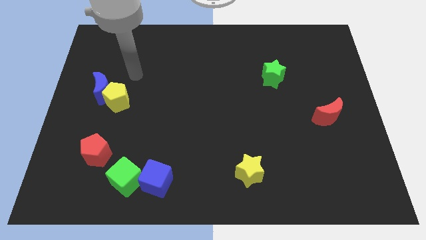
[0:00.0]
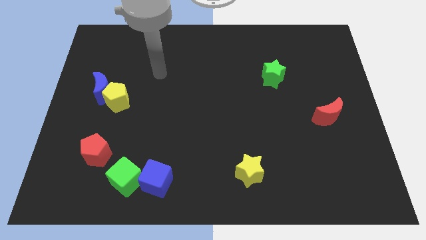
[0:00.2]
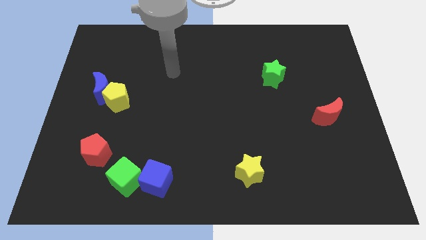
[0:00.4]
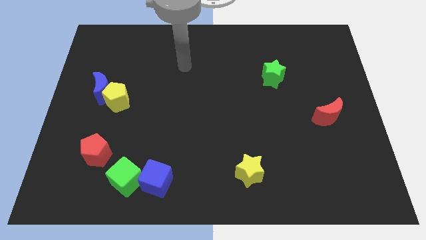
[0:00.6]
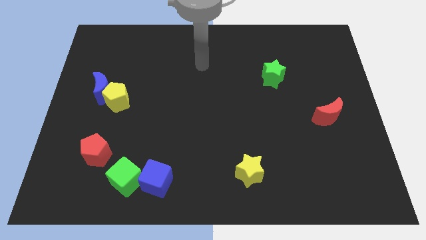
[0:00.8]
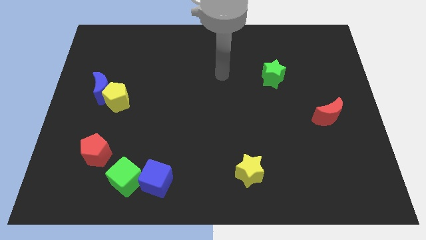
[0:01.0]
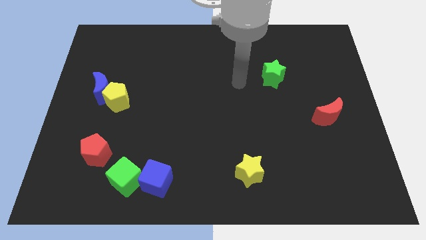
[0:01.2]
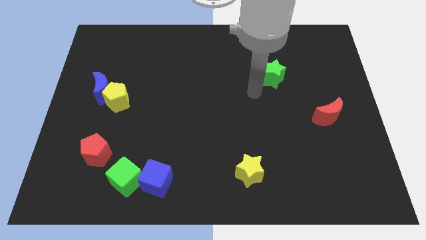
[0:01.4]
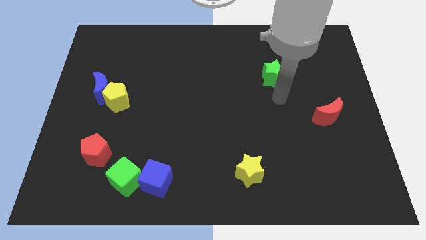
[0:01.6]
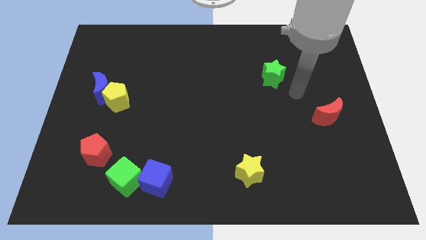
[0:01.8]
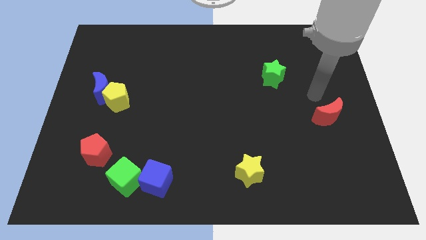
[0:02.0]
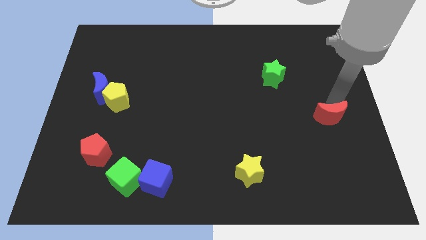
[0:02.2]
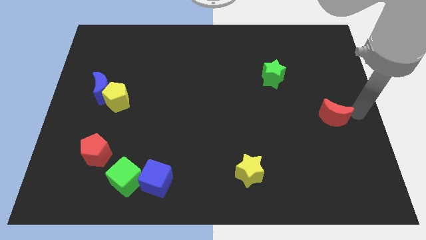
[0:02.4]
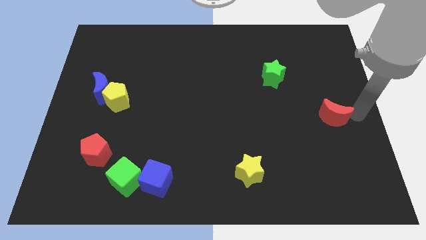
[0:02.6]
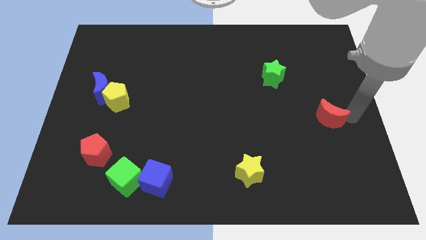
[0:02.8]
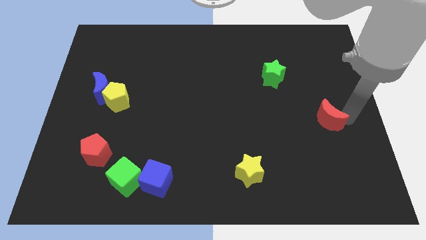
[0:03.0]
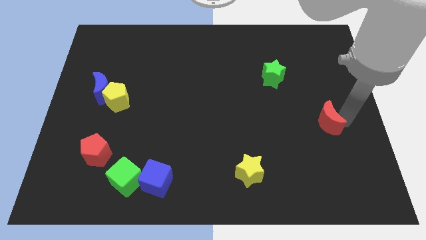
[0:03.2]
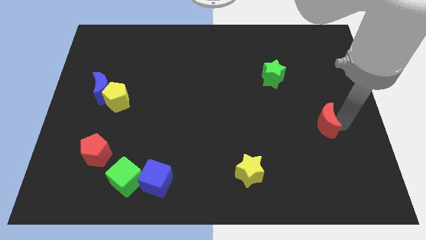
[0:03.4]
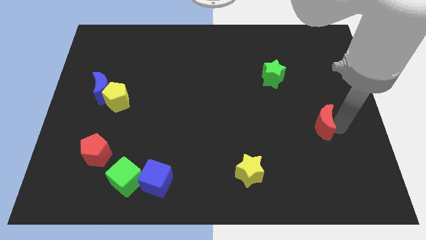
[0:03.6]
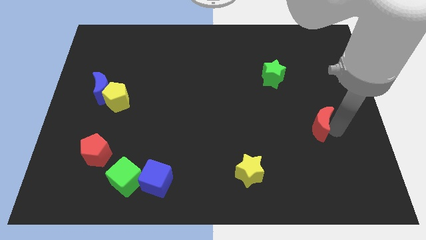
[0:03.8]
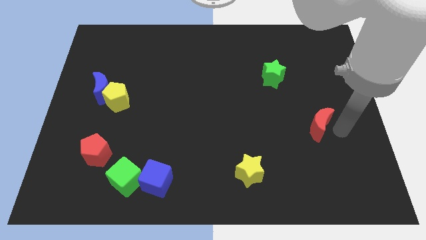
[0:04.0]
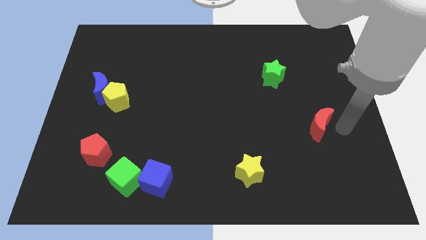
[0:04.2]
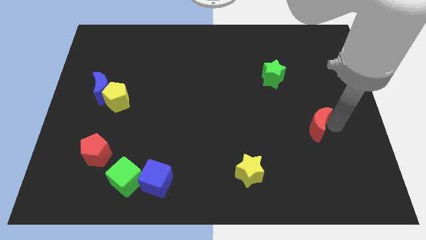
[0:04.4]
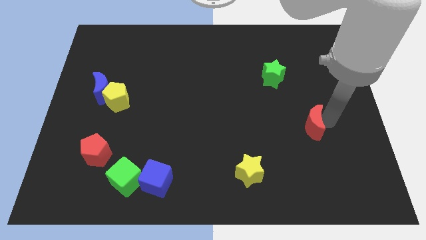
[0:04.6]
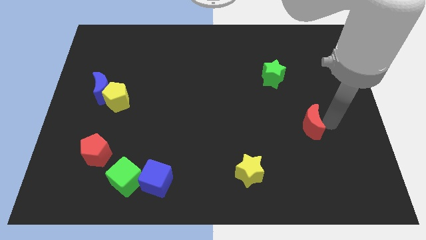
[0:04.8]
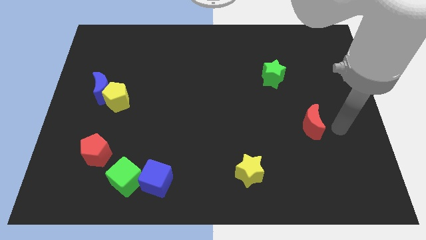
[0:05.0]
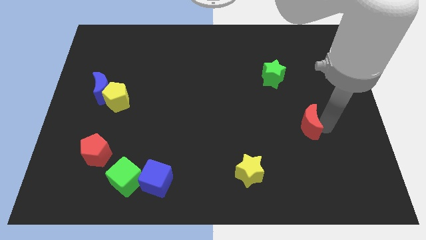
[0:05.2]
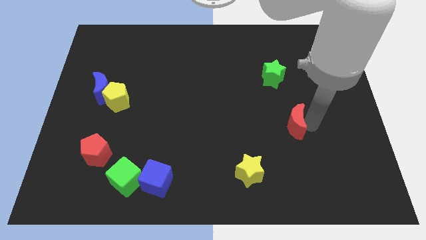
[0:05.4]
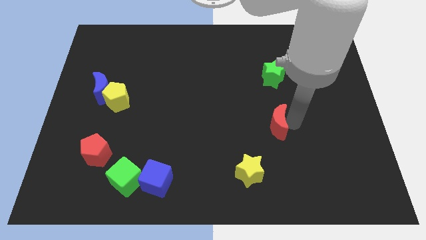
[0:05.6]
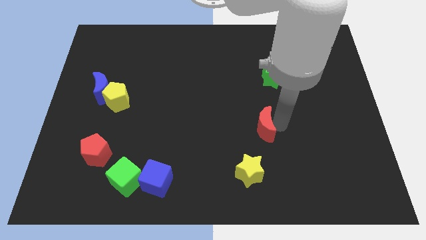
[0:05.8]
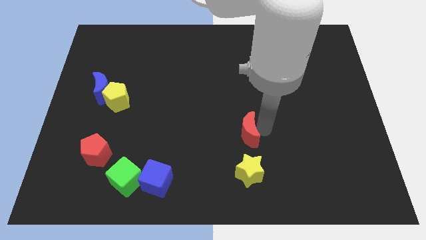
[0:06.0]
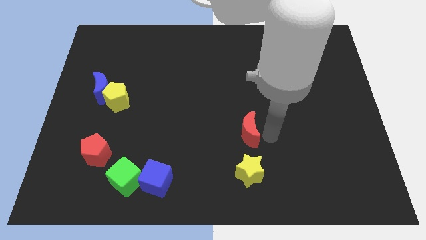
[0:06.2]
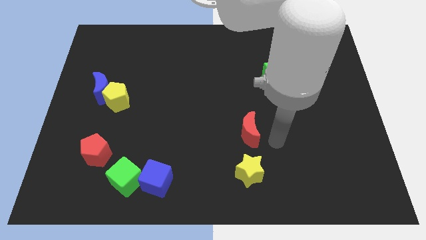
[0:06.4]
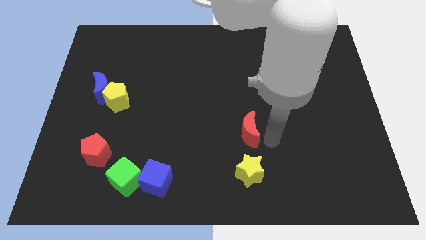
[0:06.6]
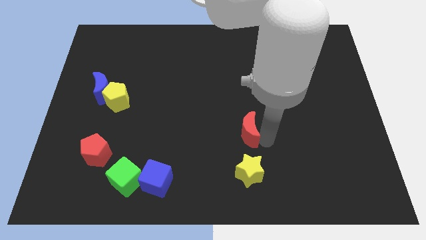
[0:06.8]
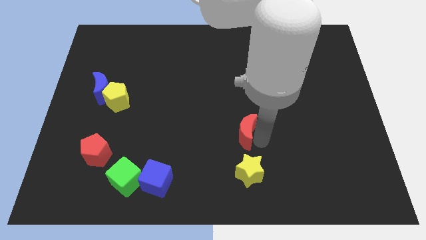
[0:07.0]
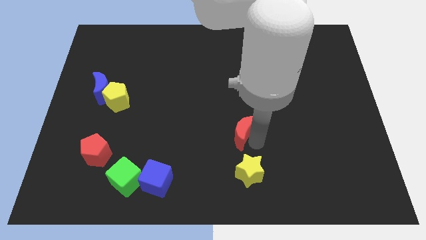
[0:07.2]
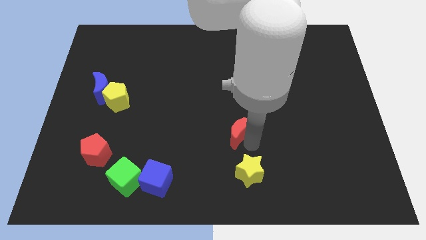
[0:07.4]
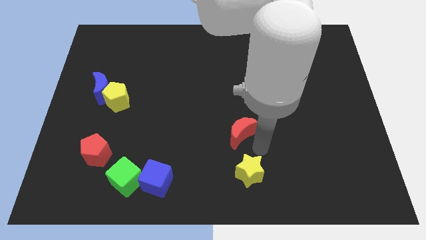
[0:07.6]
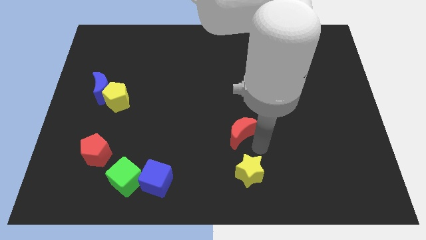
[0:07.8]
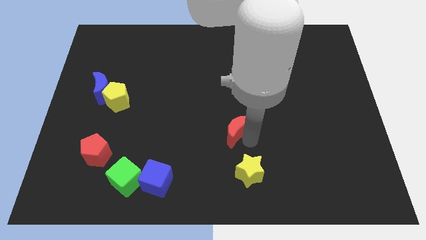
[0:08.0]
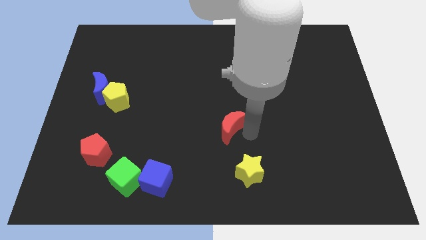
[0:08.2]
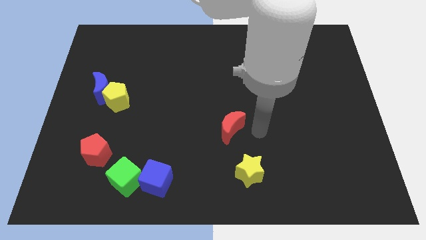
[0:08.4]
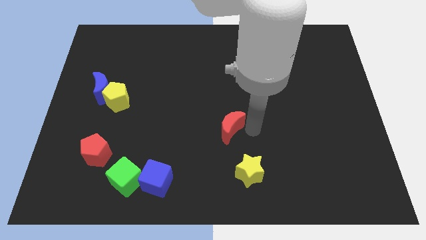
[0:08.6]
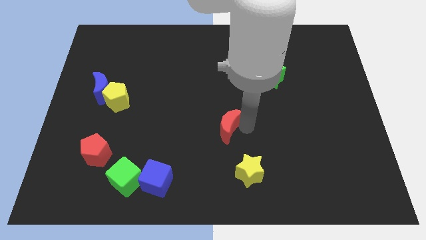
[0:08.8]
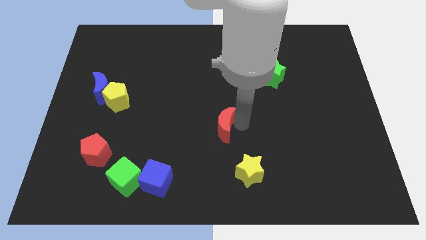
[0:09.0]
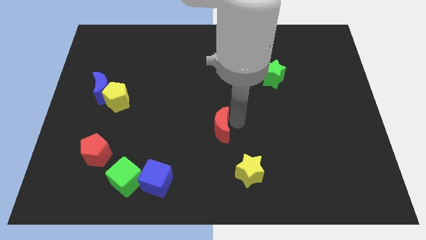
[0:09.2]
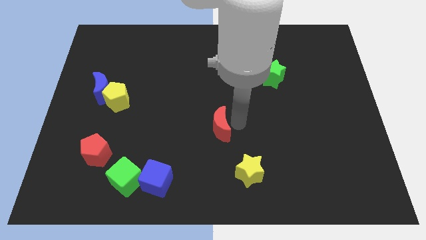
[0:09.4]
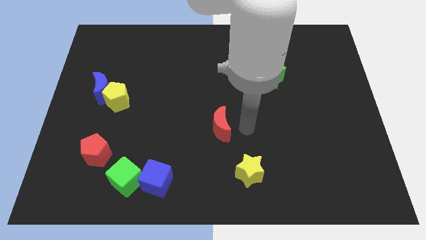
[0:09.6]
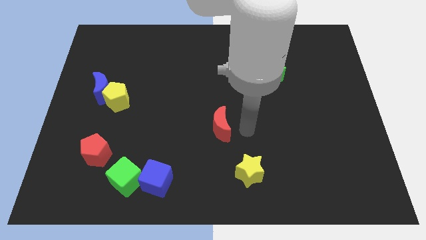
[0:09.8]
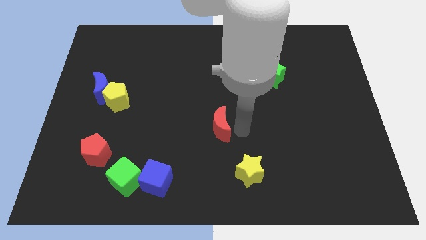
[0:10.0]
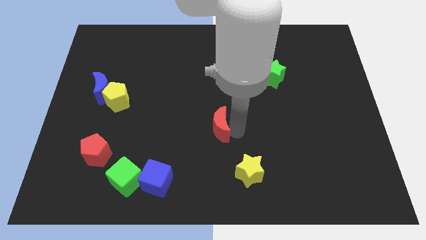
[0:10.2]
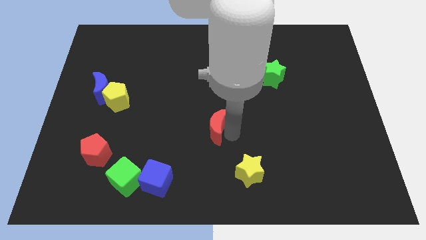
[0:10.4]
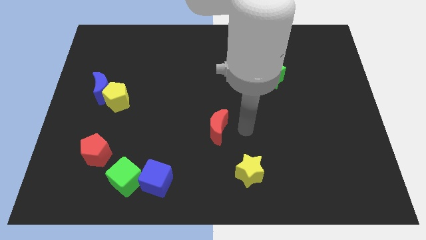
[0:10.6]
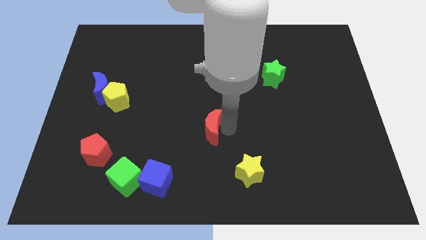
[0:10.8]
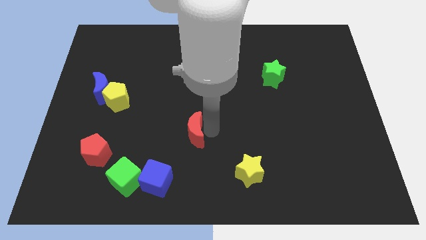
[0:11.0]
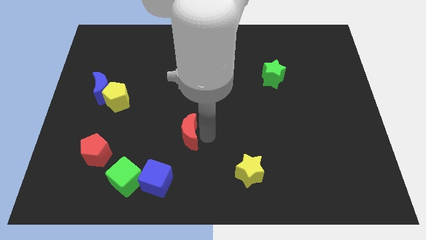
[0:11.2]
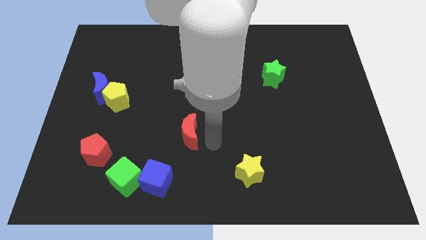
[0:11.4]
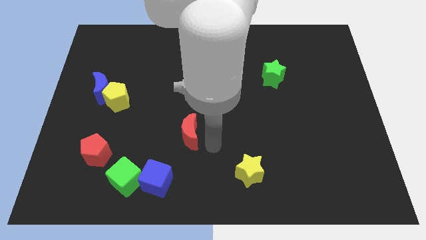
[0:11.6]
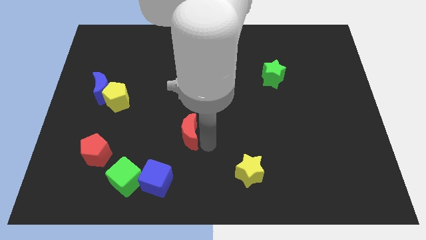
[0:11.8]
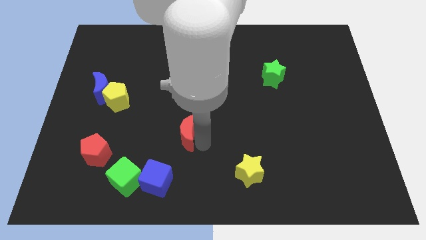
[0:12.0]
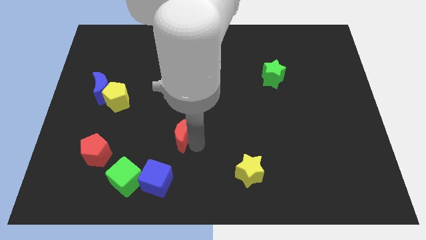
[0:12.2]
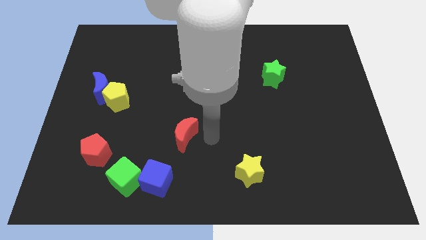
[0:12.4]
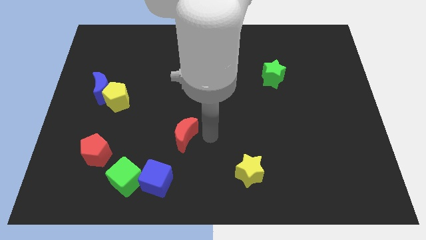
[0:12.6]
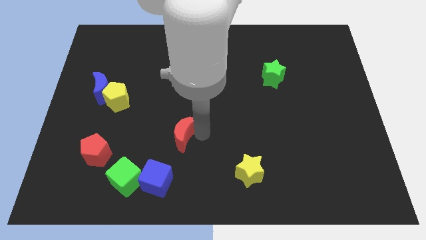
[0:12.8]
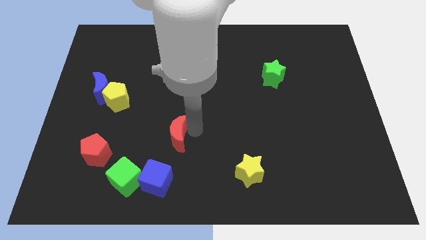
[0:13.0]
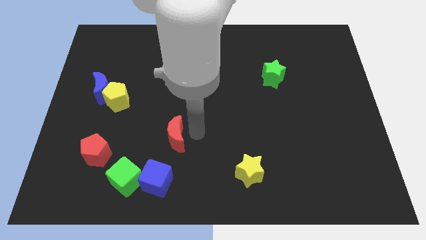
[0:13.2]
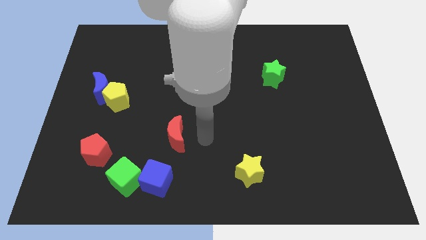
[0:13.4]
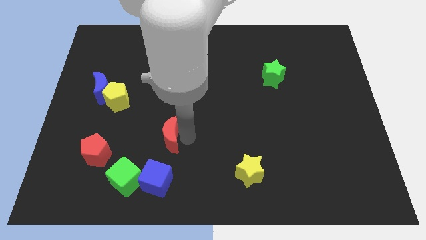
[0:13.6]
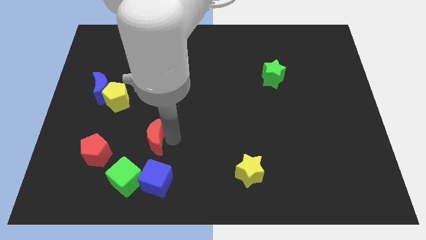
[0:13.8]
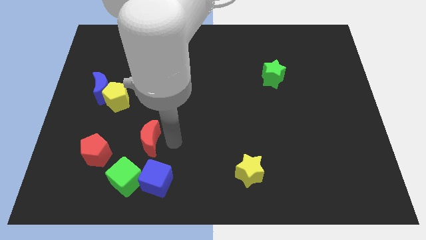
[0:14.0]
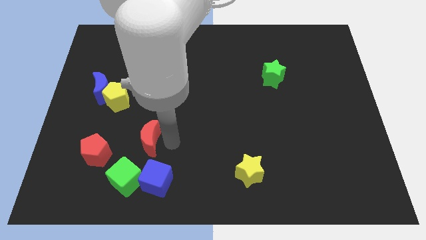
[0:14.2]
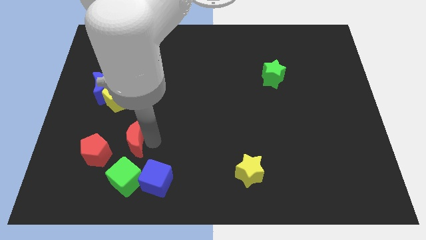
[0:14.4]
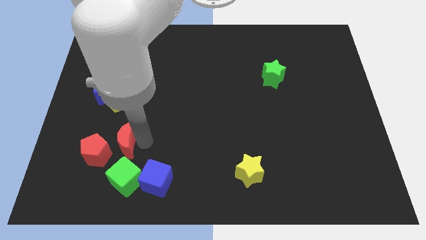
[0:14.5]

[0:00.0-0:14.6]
put the red moon to the bottom of the yellow pentagon

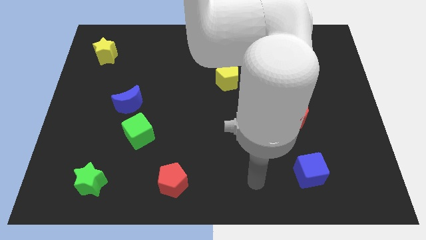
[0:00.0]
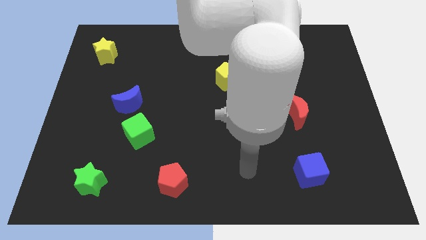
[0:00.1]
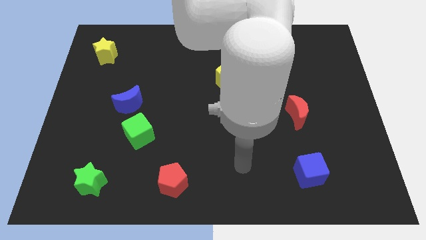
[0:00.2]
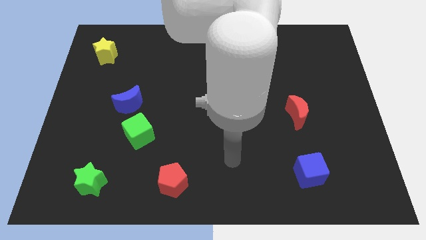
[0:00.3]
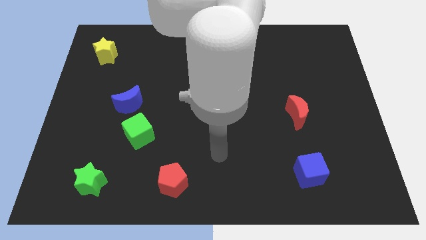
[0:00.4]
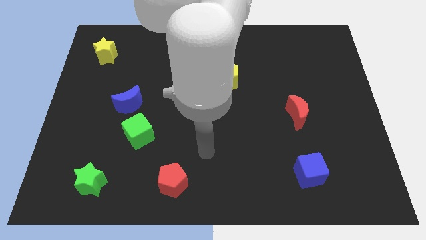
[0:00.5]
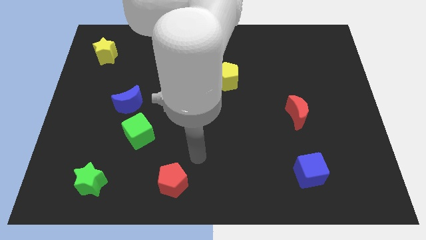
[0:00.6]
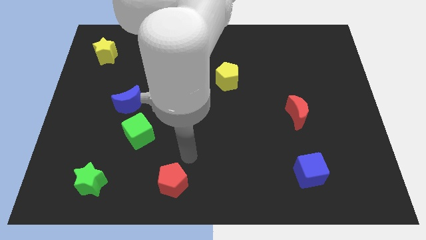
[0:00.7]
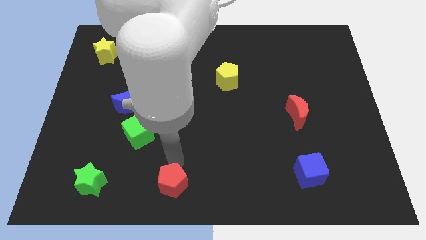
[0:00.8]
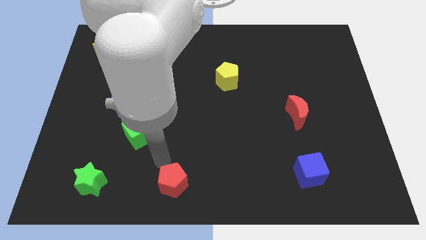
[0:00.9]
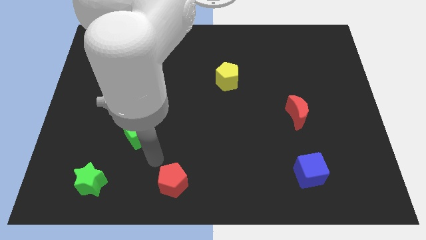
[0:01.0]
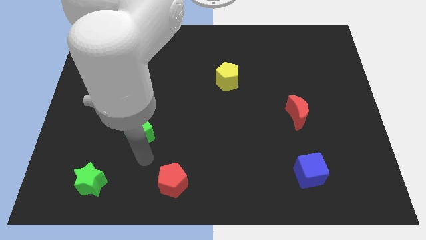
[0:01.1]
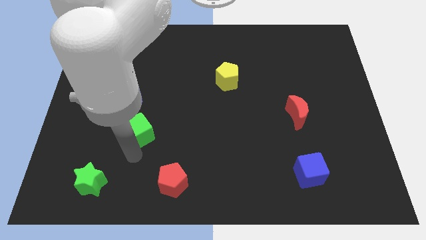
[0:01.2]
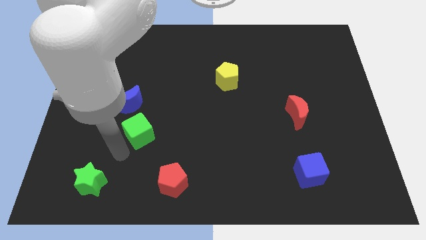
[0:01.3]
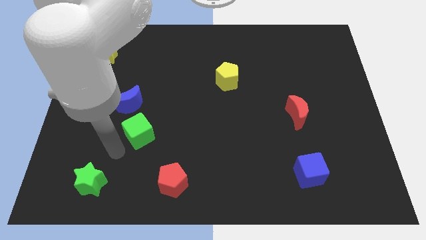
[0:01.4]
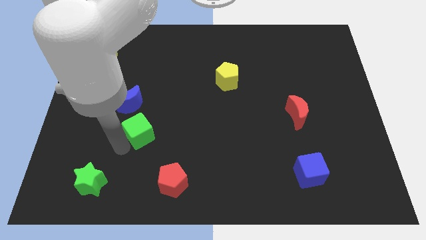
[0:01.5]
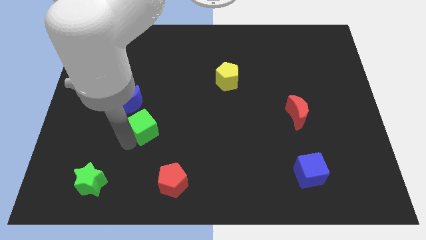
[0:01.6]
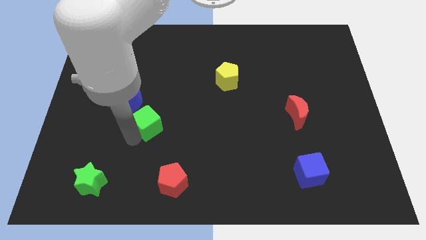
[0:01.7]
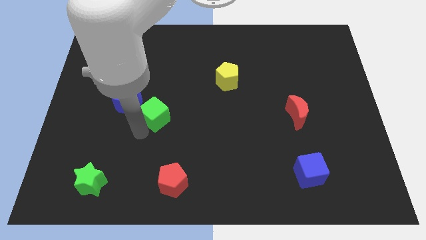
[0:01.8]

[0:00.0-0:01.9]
put the green cube just right of the blue moon
